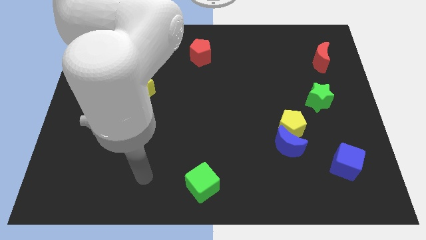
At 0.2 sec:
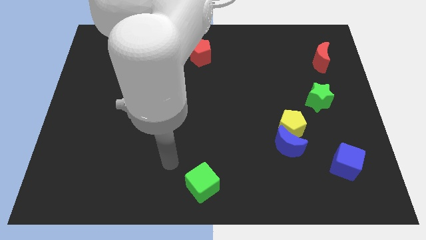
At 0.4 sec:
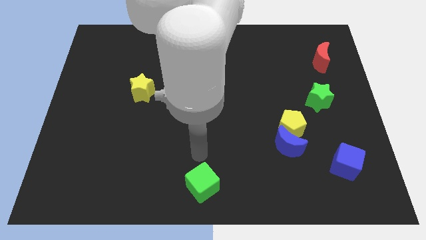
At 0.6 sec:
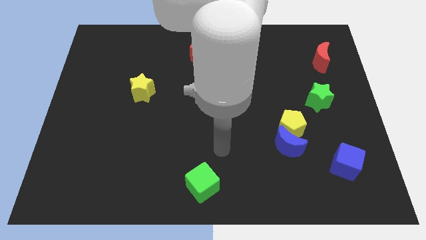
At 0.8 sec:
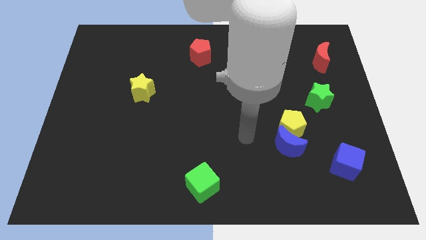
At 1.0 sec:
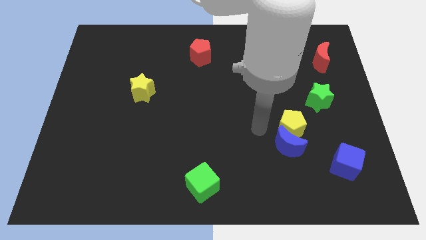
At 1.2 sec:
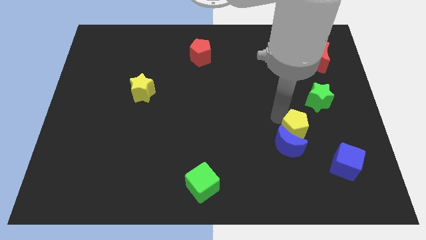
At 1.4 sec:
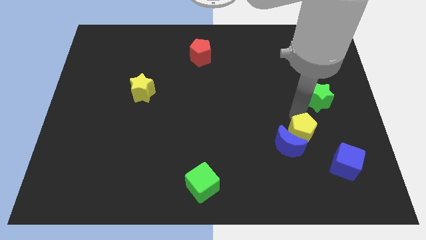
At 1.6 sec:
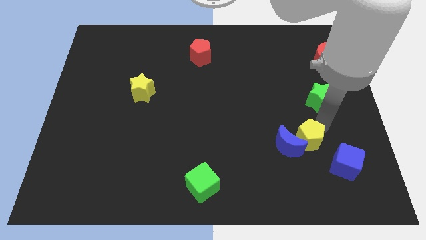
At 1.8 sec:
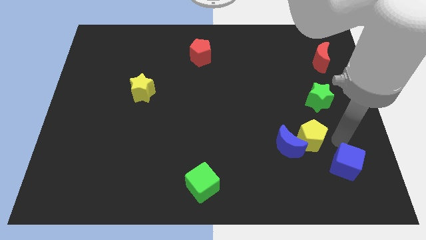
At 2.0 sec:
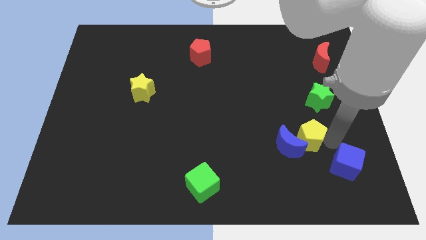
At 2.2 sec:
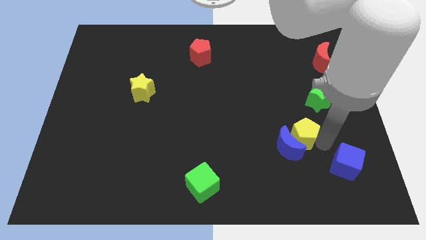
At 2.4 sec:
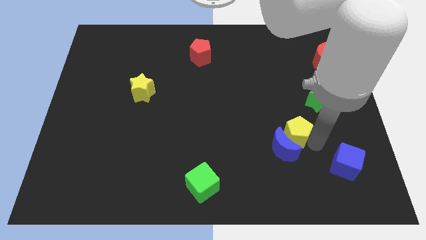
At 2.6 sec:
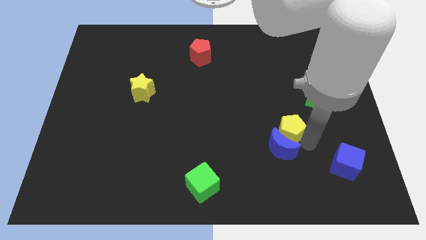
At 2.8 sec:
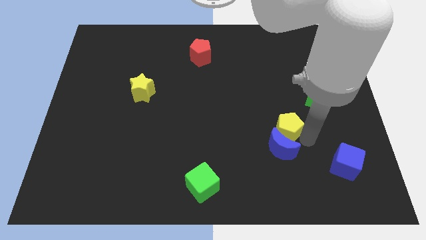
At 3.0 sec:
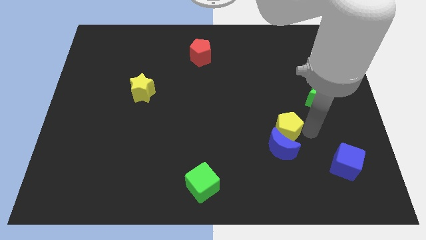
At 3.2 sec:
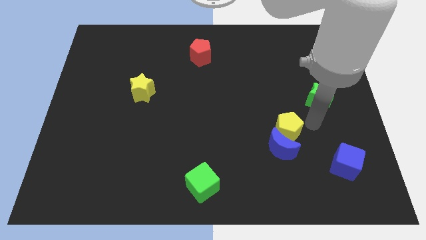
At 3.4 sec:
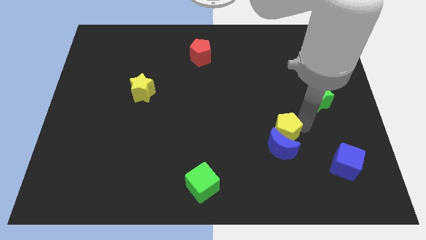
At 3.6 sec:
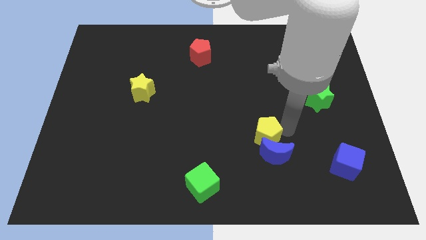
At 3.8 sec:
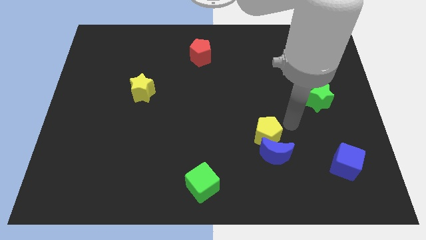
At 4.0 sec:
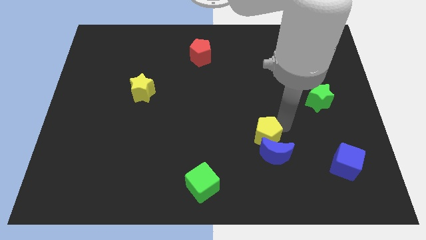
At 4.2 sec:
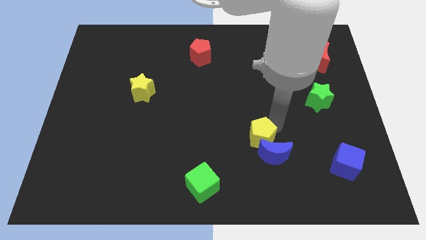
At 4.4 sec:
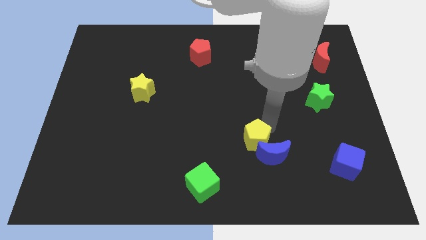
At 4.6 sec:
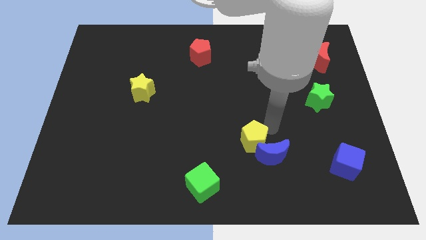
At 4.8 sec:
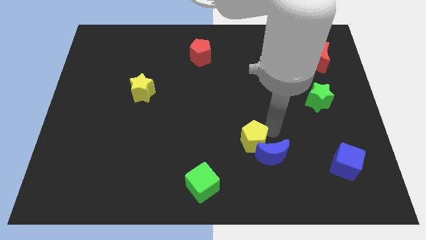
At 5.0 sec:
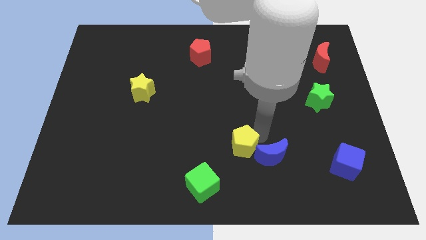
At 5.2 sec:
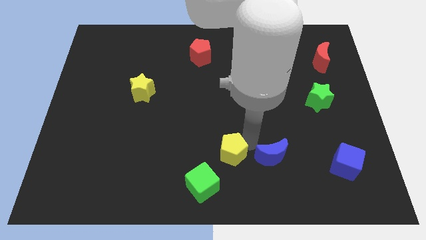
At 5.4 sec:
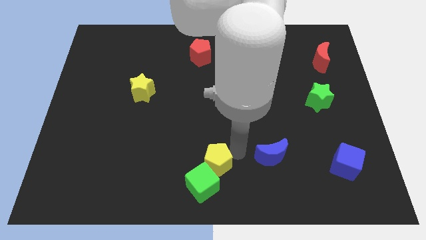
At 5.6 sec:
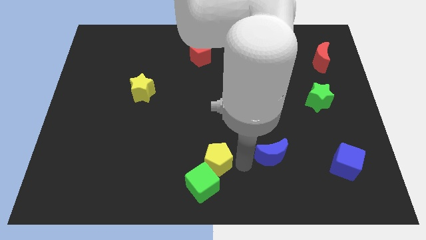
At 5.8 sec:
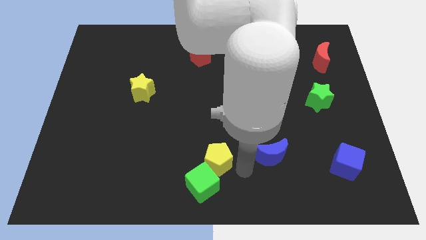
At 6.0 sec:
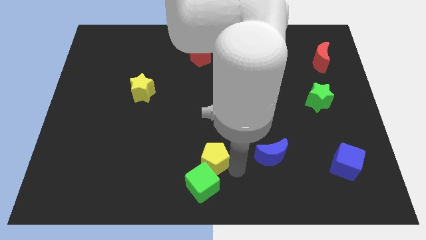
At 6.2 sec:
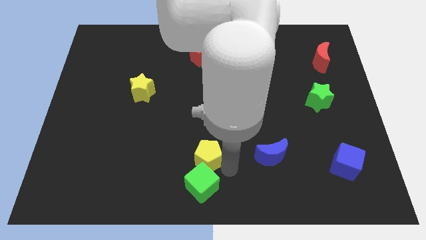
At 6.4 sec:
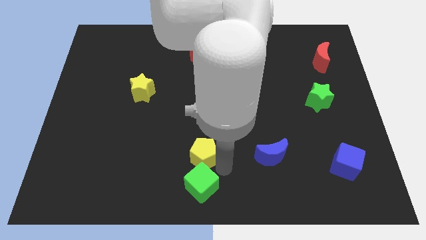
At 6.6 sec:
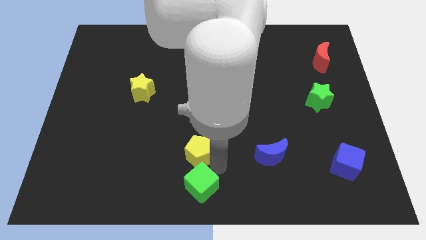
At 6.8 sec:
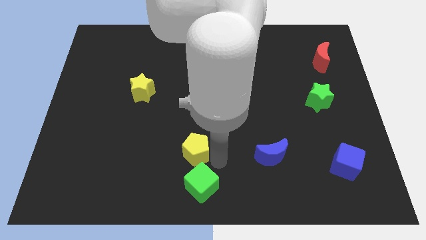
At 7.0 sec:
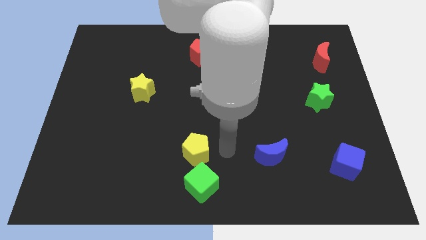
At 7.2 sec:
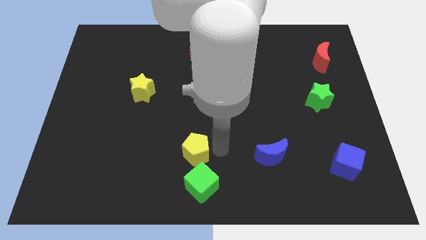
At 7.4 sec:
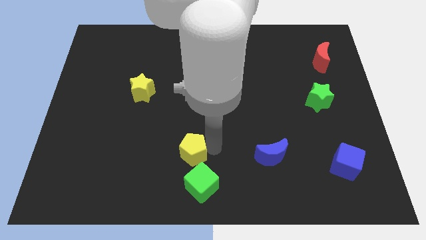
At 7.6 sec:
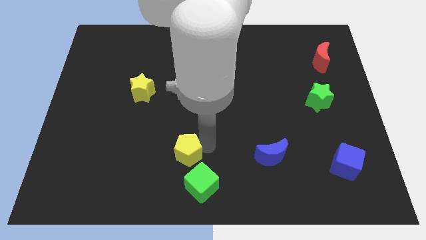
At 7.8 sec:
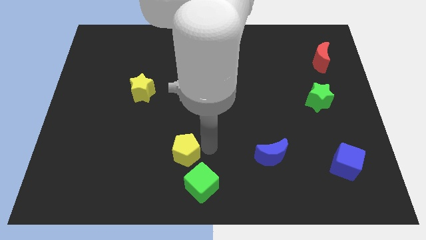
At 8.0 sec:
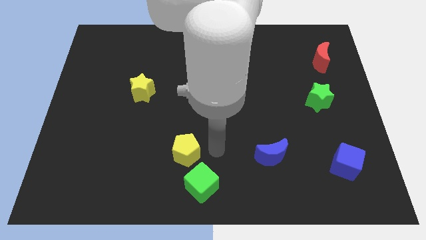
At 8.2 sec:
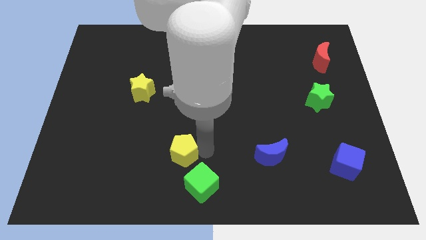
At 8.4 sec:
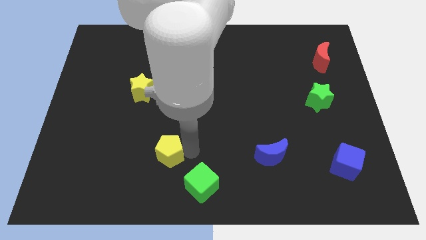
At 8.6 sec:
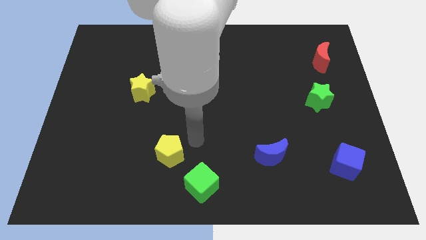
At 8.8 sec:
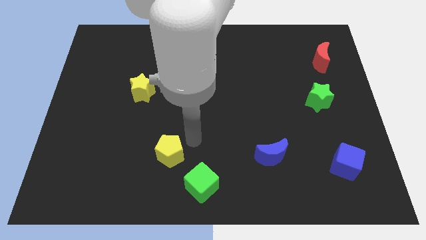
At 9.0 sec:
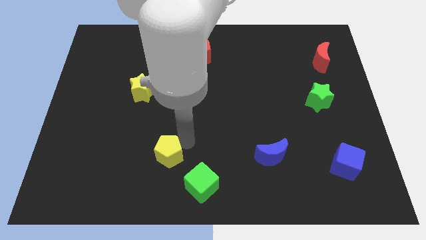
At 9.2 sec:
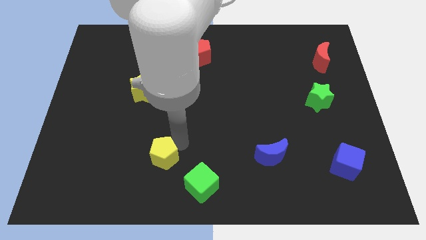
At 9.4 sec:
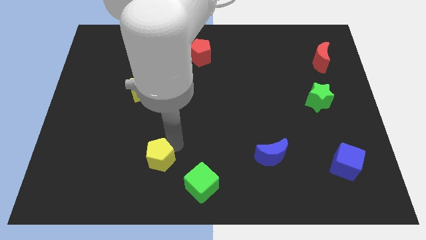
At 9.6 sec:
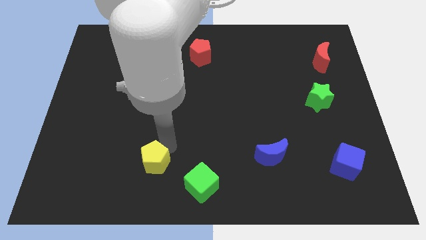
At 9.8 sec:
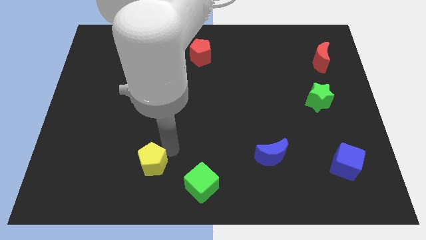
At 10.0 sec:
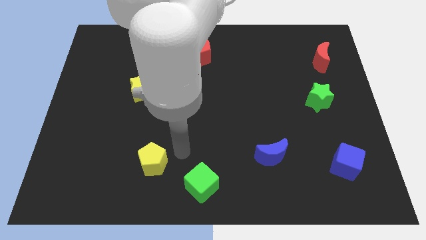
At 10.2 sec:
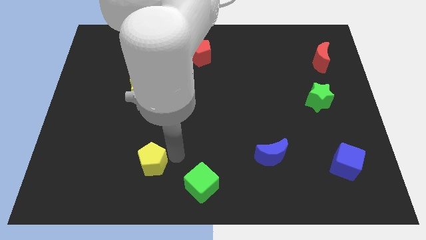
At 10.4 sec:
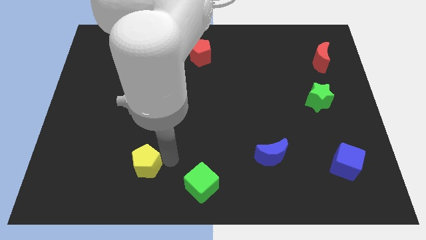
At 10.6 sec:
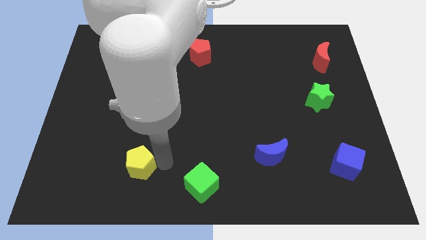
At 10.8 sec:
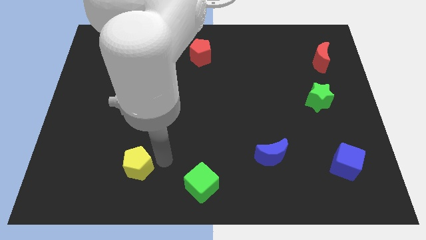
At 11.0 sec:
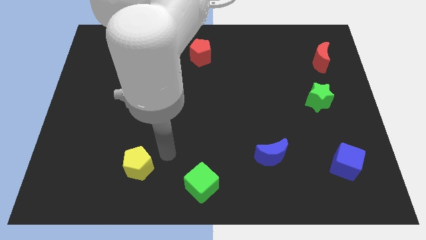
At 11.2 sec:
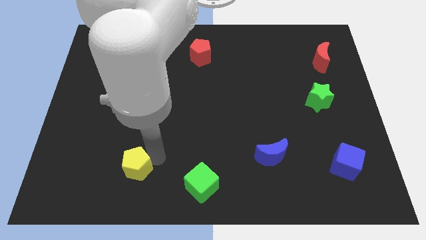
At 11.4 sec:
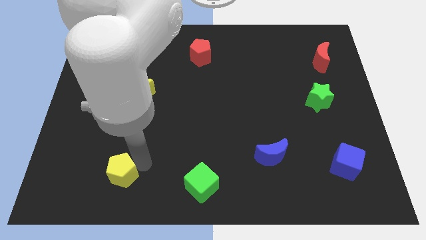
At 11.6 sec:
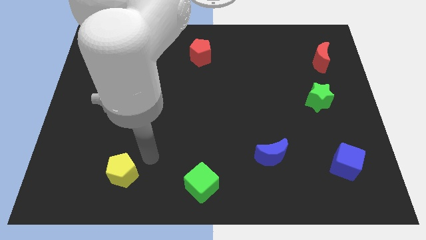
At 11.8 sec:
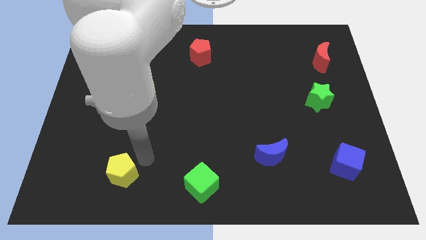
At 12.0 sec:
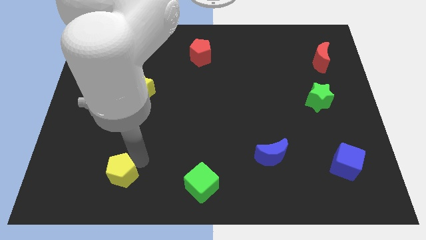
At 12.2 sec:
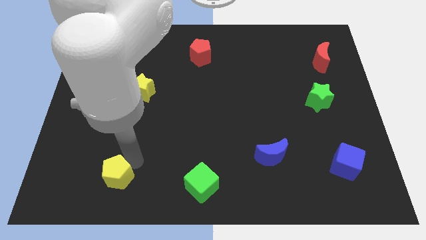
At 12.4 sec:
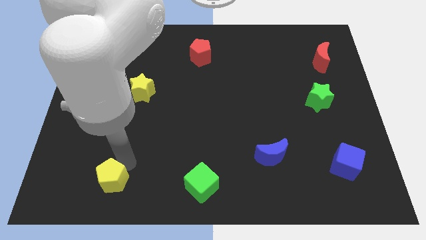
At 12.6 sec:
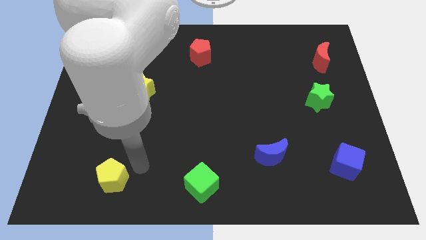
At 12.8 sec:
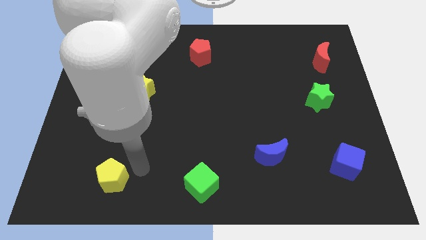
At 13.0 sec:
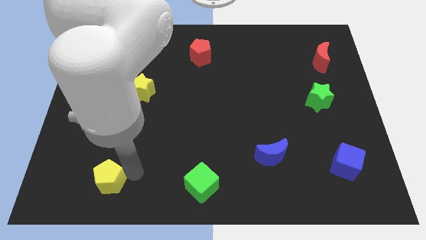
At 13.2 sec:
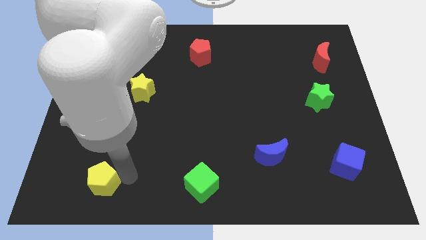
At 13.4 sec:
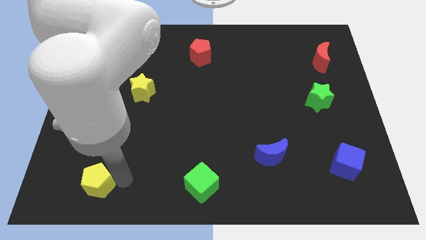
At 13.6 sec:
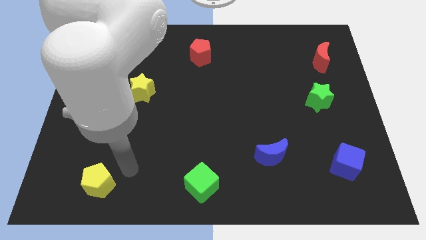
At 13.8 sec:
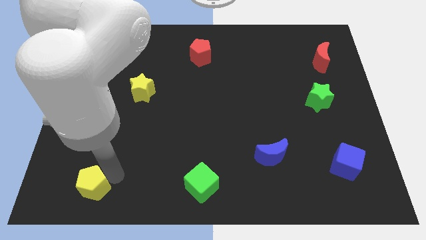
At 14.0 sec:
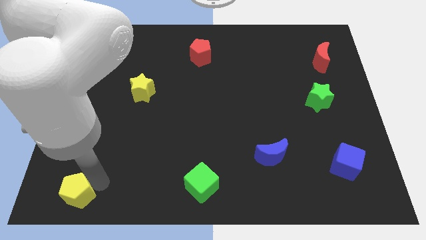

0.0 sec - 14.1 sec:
slide the yellow pentagon to the bottom left

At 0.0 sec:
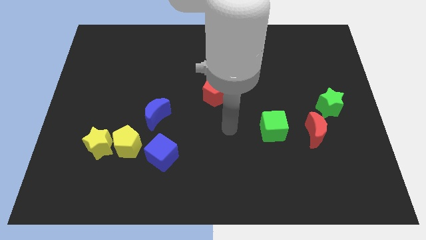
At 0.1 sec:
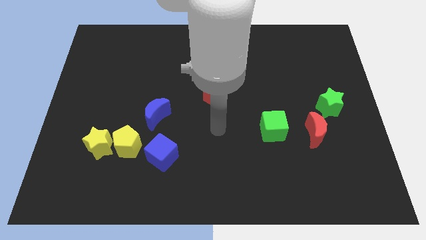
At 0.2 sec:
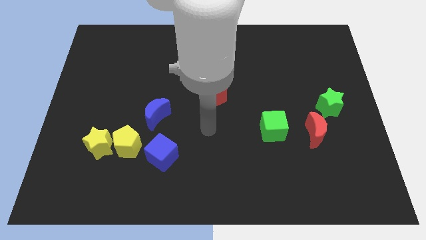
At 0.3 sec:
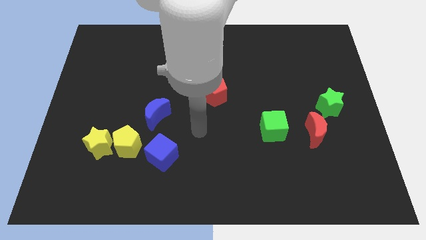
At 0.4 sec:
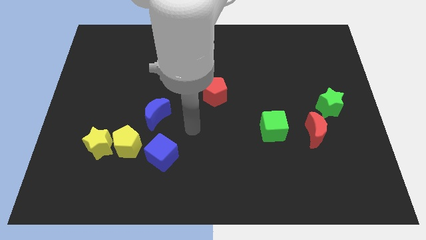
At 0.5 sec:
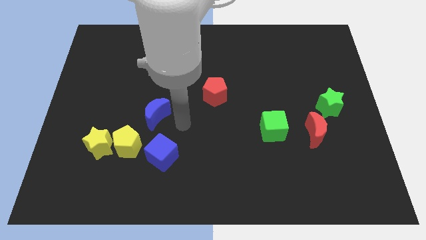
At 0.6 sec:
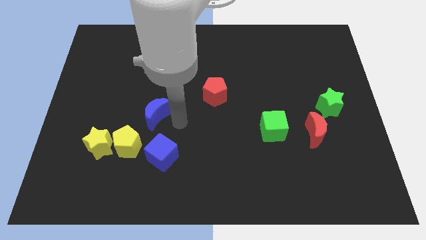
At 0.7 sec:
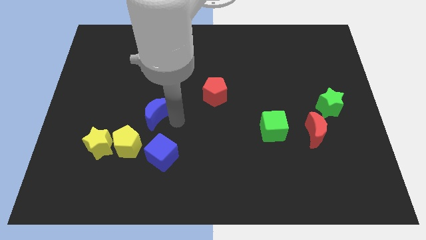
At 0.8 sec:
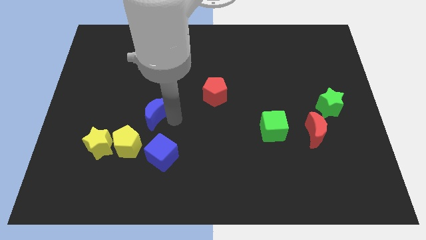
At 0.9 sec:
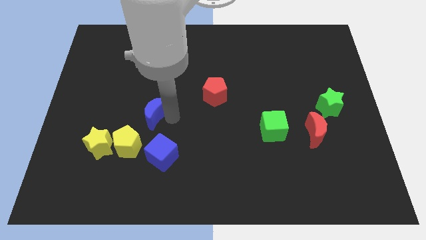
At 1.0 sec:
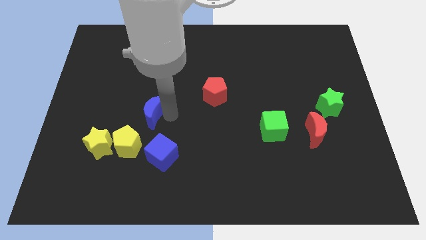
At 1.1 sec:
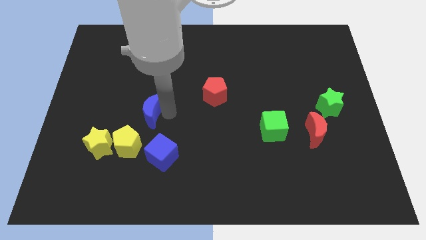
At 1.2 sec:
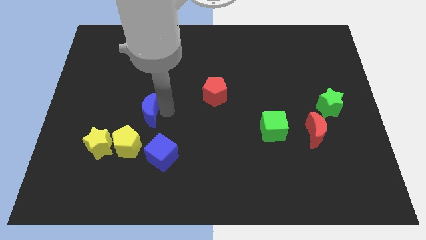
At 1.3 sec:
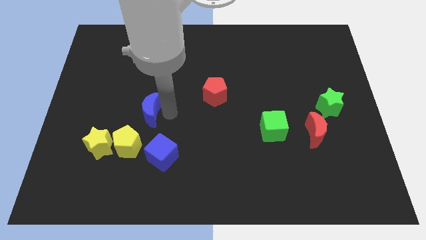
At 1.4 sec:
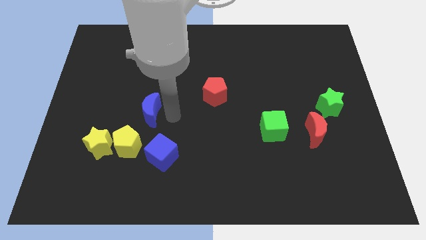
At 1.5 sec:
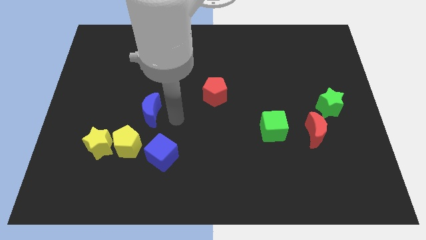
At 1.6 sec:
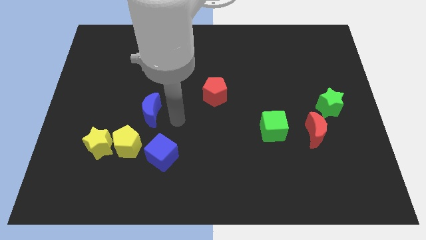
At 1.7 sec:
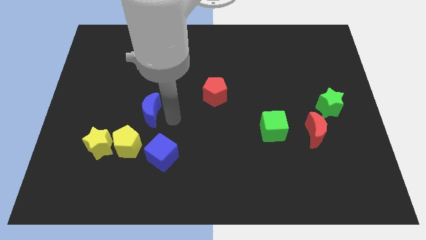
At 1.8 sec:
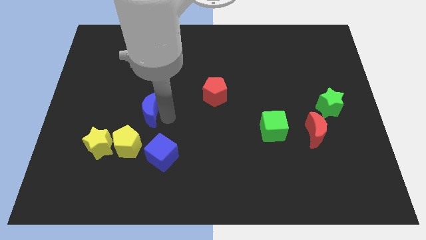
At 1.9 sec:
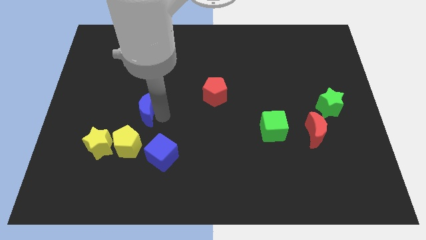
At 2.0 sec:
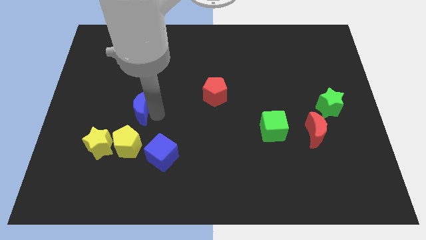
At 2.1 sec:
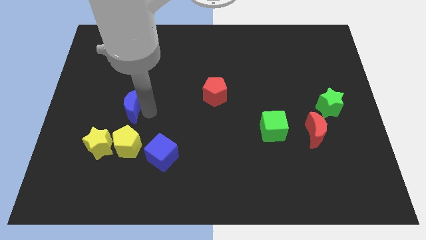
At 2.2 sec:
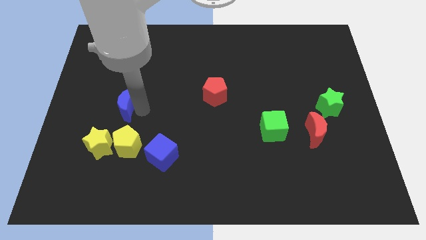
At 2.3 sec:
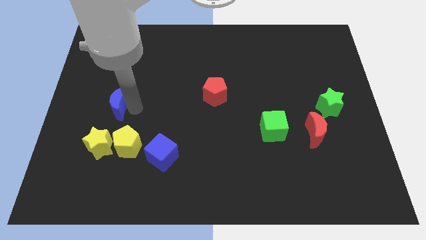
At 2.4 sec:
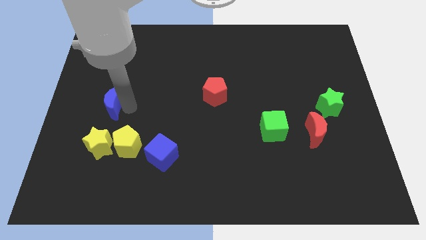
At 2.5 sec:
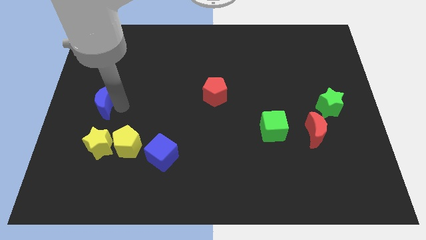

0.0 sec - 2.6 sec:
push the blue moon to the center left
